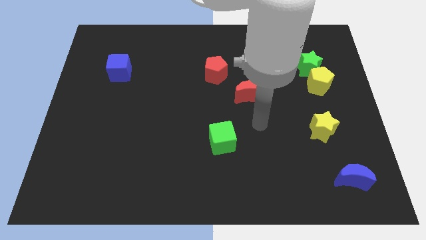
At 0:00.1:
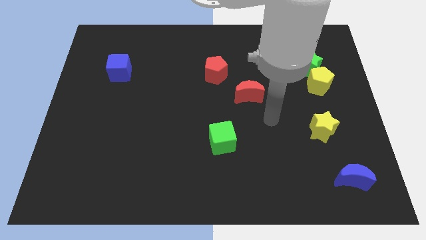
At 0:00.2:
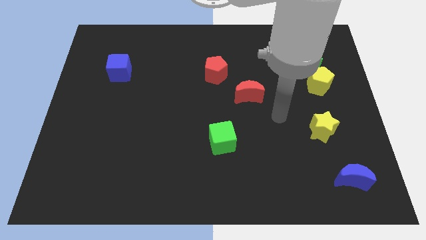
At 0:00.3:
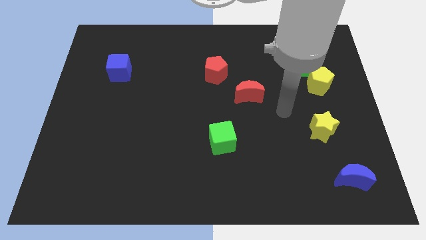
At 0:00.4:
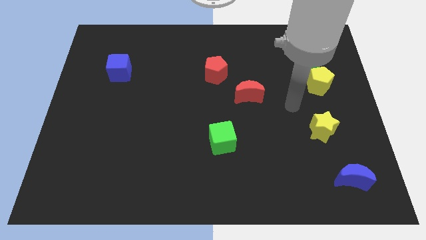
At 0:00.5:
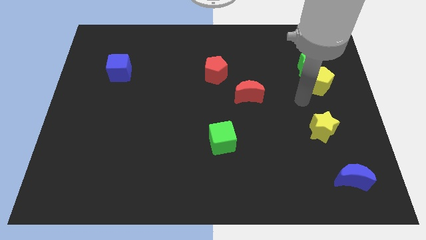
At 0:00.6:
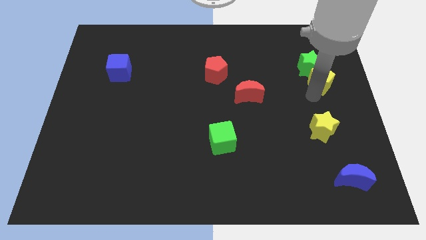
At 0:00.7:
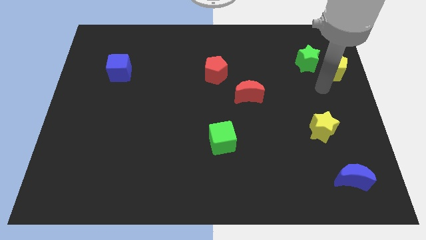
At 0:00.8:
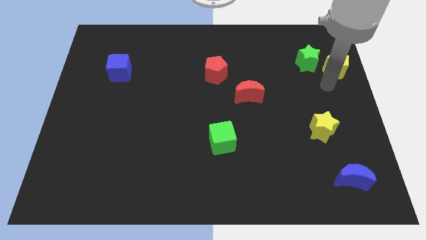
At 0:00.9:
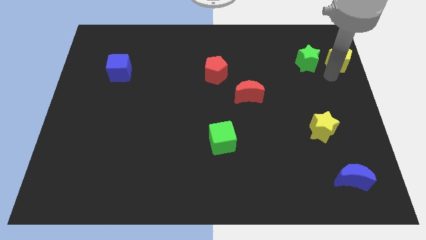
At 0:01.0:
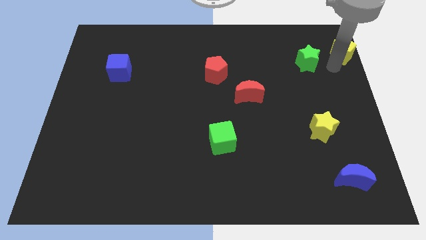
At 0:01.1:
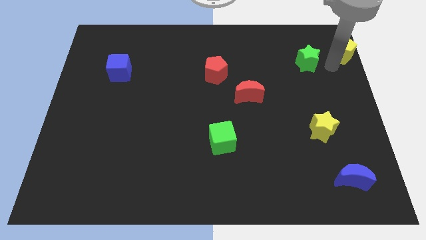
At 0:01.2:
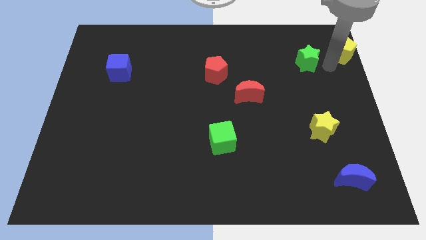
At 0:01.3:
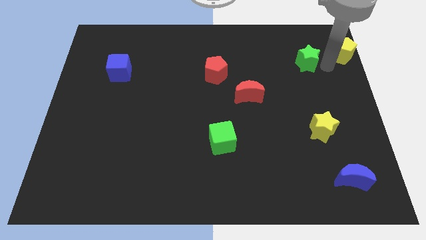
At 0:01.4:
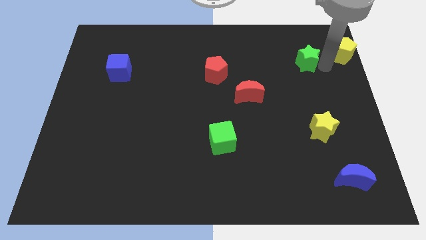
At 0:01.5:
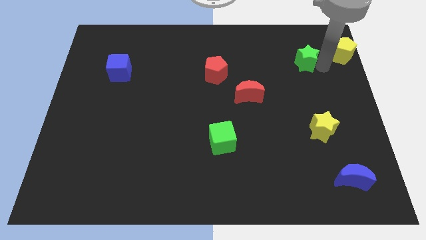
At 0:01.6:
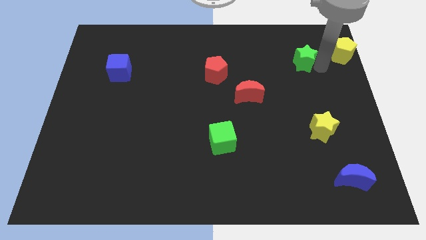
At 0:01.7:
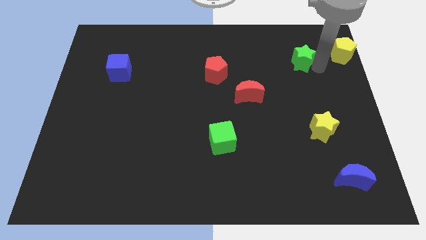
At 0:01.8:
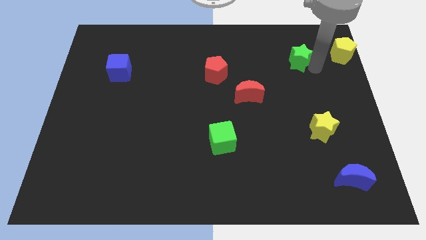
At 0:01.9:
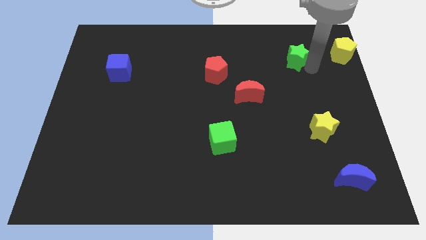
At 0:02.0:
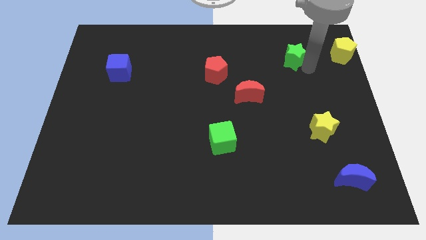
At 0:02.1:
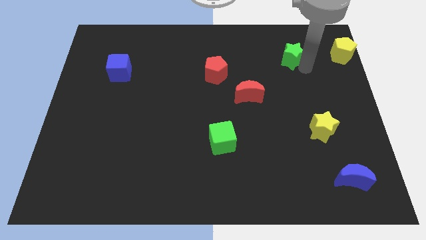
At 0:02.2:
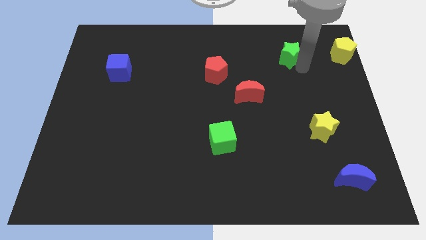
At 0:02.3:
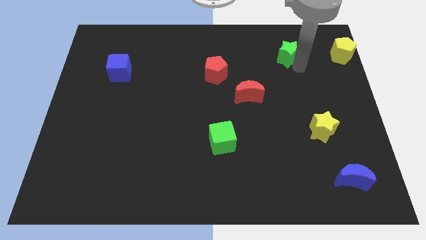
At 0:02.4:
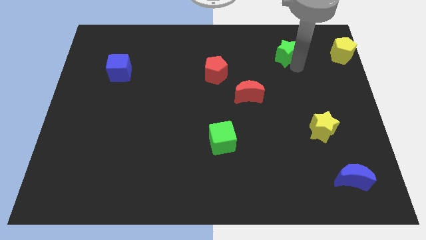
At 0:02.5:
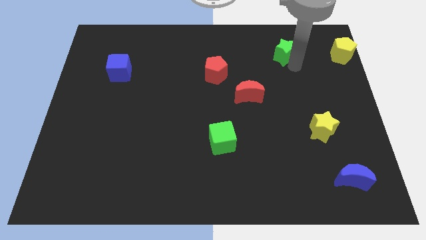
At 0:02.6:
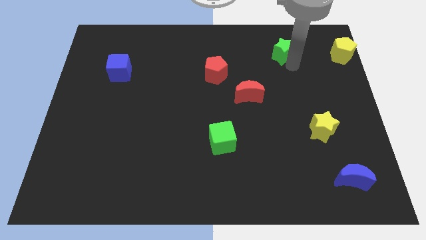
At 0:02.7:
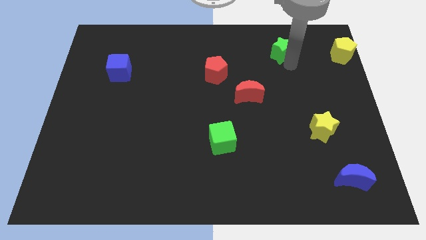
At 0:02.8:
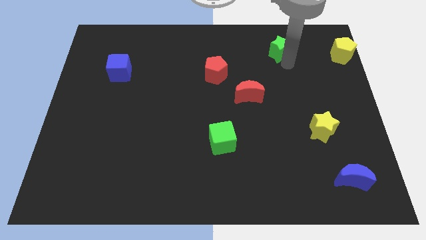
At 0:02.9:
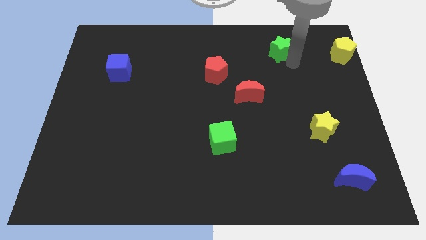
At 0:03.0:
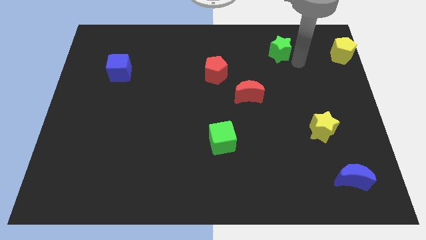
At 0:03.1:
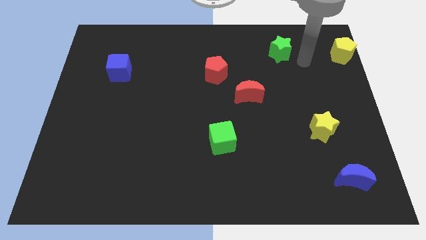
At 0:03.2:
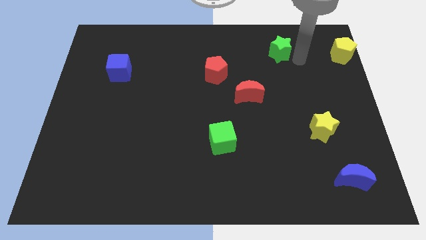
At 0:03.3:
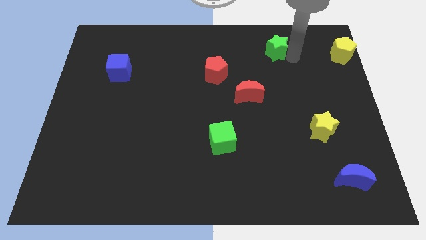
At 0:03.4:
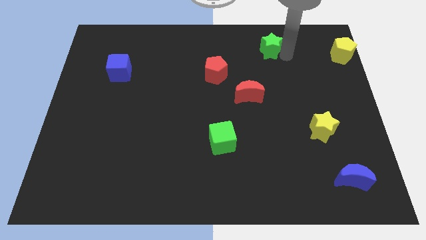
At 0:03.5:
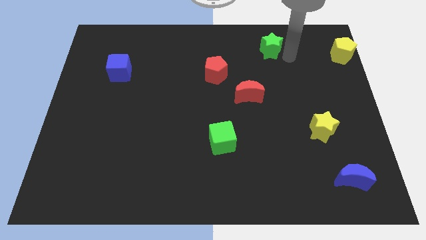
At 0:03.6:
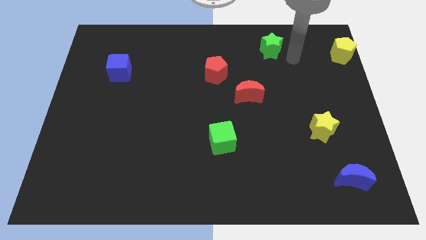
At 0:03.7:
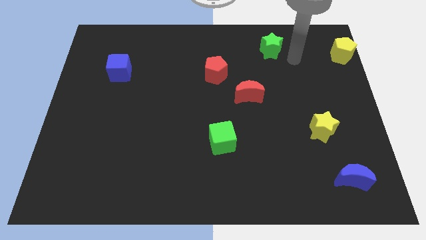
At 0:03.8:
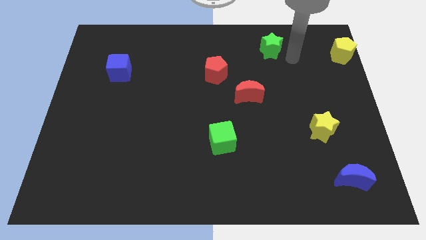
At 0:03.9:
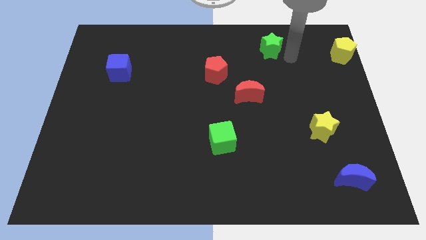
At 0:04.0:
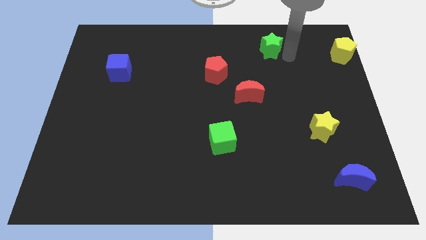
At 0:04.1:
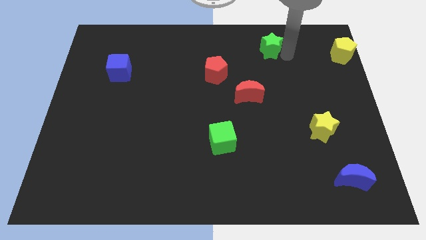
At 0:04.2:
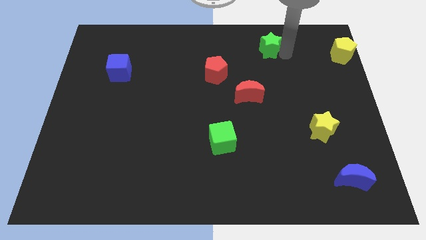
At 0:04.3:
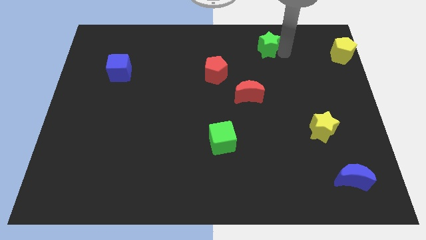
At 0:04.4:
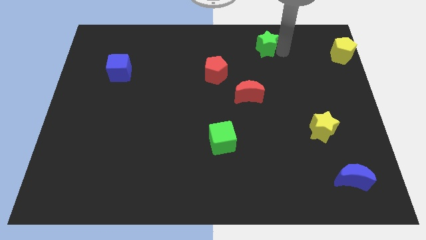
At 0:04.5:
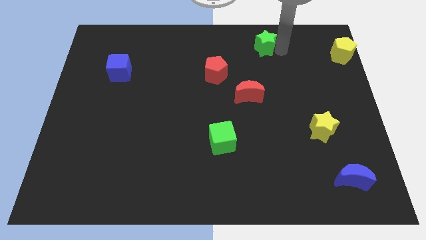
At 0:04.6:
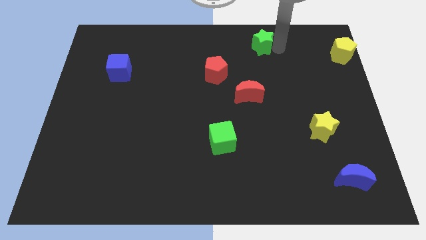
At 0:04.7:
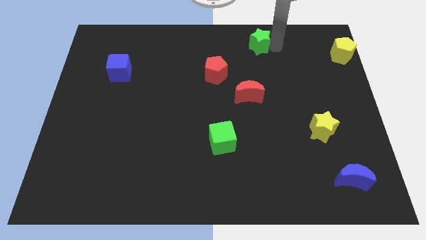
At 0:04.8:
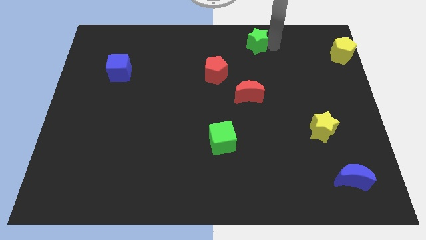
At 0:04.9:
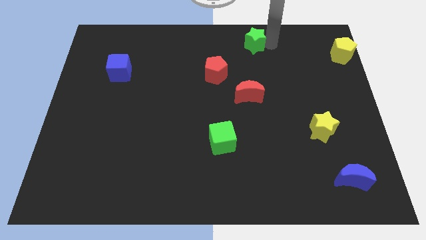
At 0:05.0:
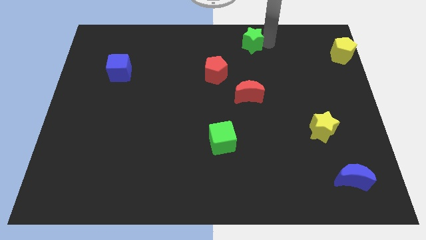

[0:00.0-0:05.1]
put the green star to the towards your base

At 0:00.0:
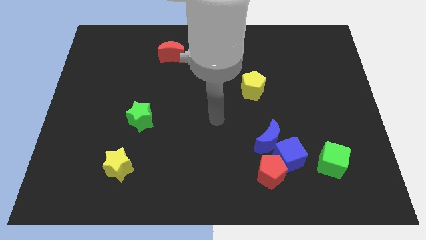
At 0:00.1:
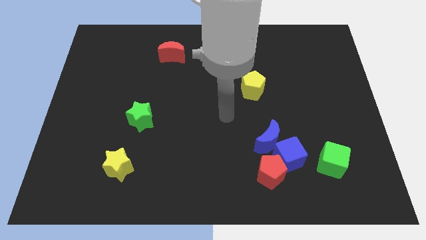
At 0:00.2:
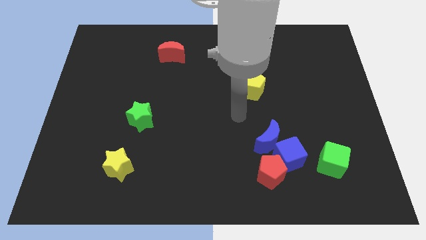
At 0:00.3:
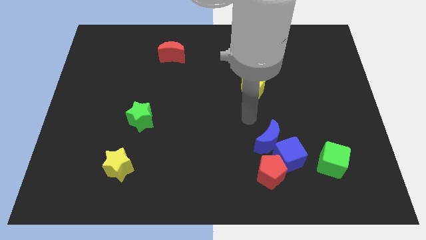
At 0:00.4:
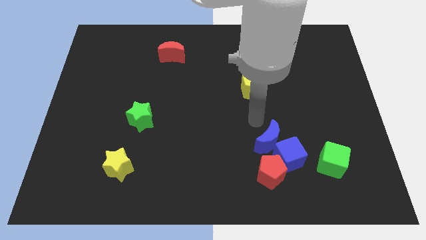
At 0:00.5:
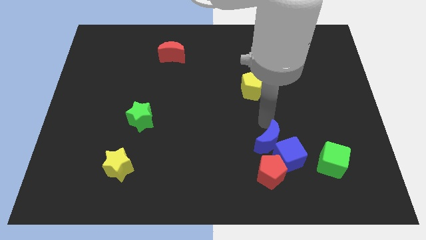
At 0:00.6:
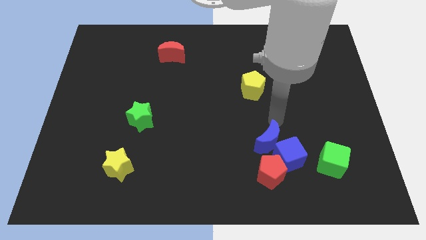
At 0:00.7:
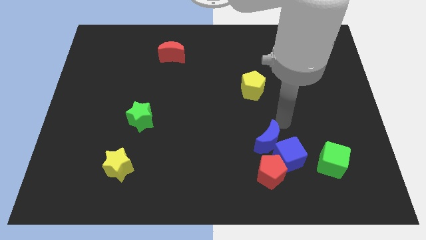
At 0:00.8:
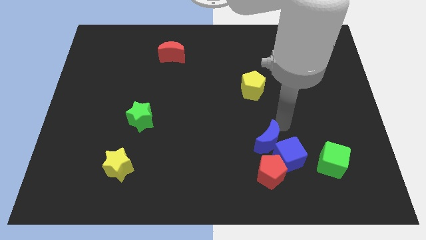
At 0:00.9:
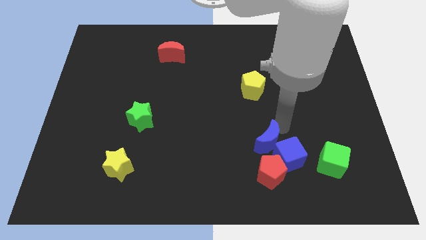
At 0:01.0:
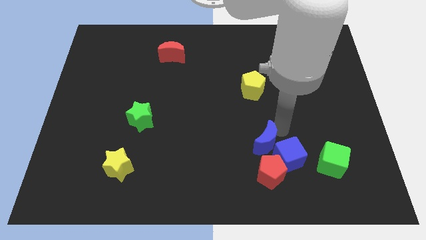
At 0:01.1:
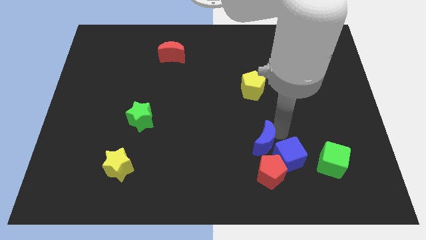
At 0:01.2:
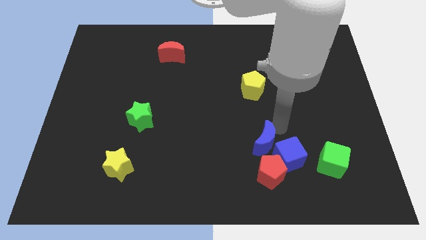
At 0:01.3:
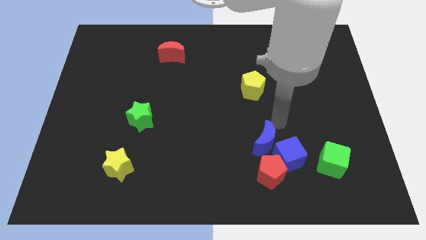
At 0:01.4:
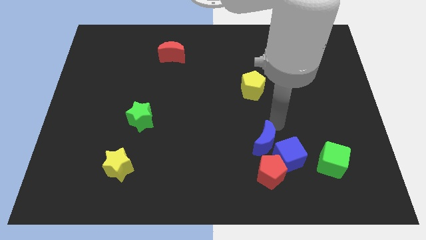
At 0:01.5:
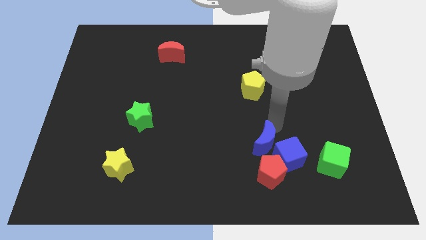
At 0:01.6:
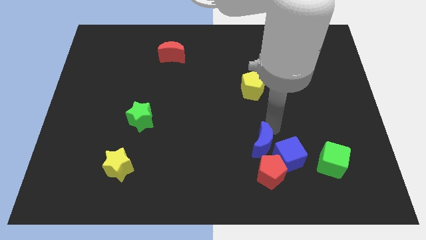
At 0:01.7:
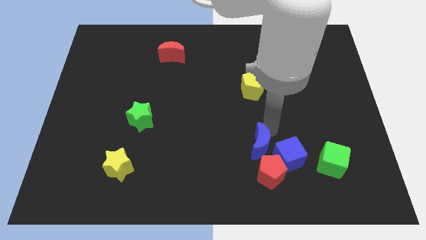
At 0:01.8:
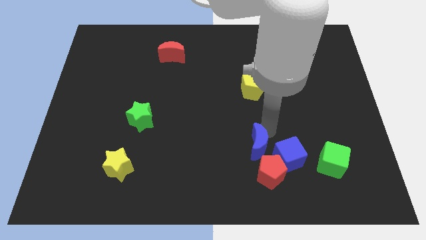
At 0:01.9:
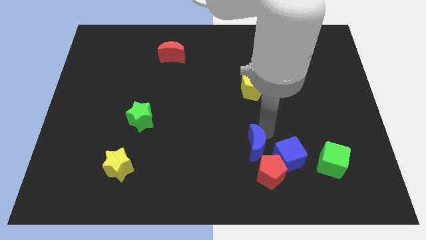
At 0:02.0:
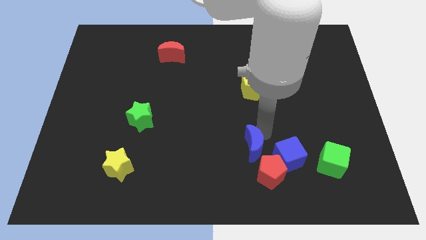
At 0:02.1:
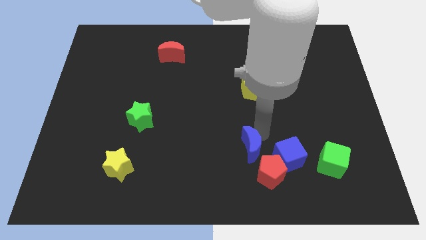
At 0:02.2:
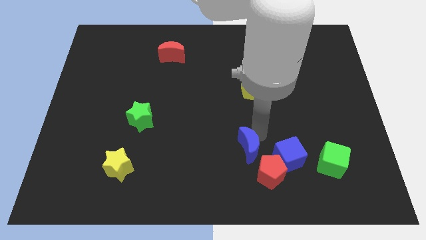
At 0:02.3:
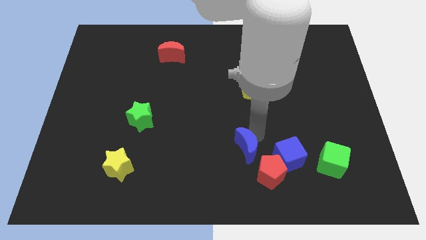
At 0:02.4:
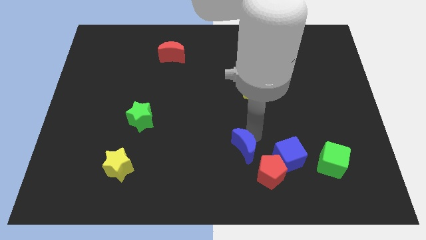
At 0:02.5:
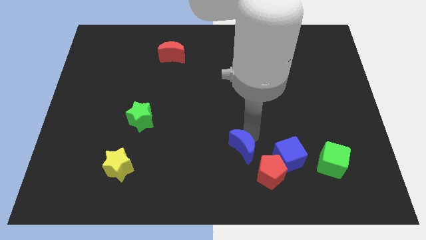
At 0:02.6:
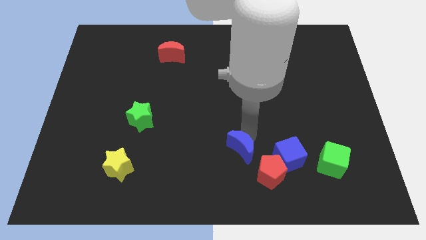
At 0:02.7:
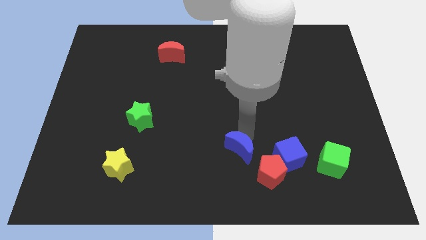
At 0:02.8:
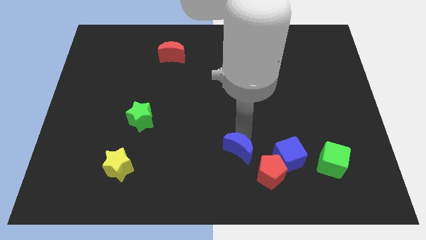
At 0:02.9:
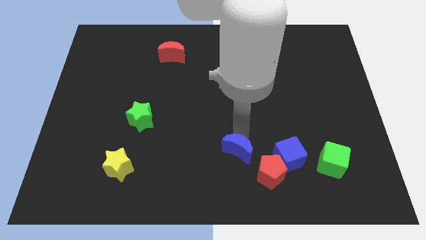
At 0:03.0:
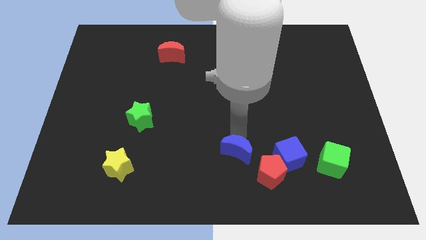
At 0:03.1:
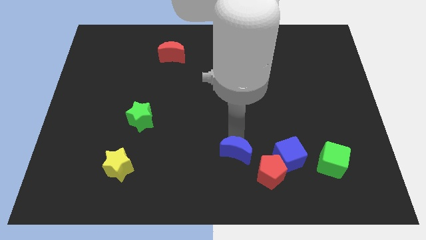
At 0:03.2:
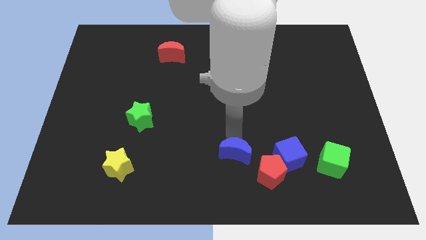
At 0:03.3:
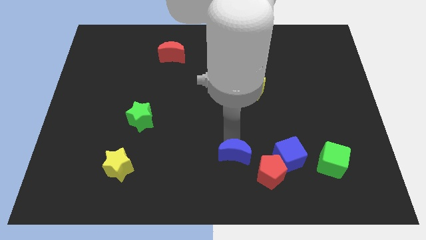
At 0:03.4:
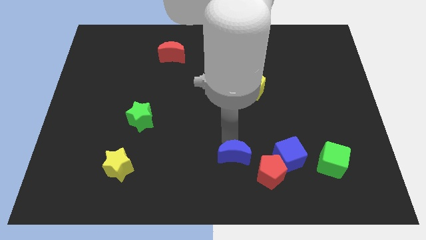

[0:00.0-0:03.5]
slide the blue moon to the bottom
